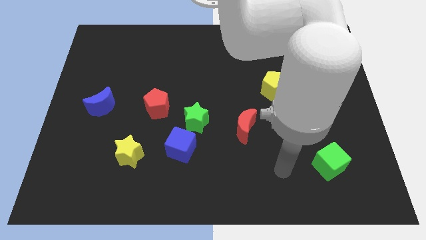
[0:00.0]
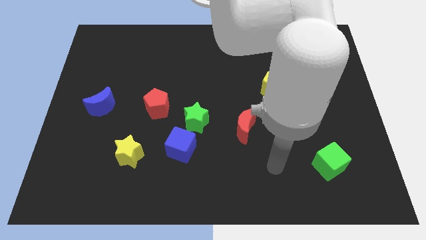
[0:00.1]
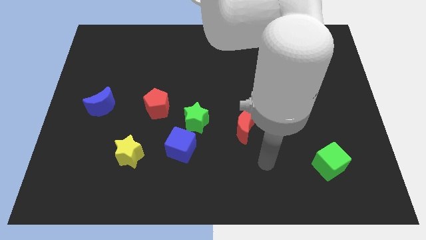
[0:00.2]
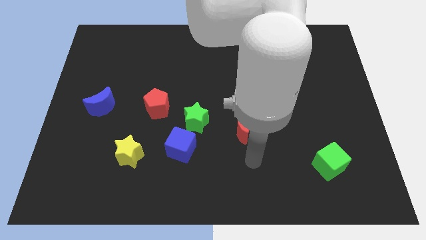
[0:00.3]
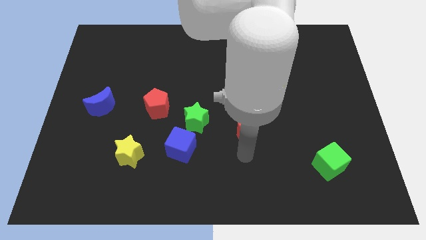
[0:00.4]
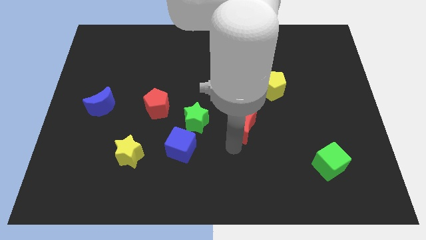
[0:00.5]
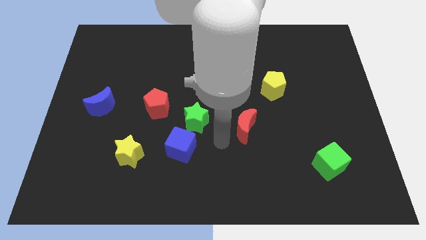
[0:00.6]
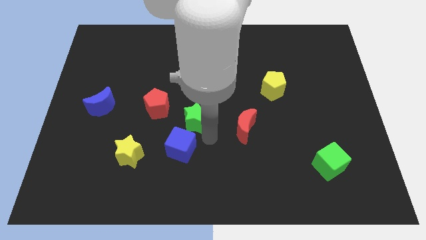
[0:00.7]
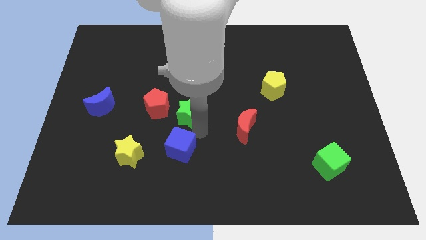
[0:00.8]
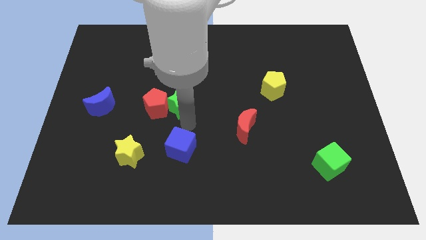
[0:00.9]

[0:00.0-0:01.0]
move the blue cube away from the green star

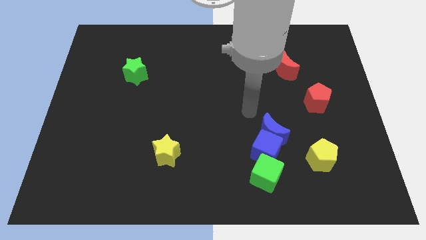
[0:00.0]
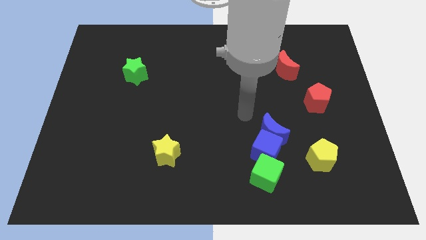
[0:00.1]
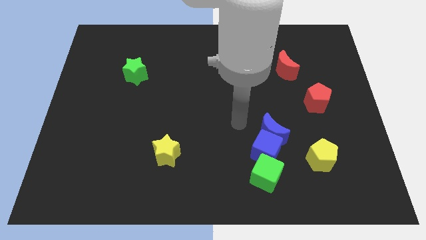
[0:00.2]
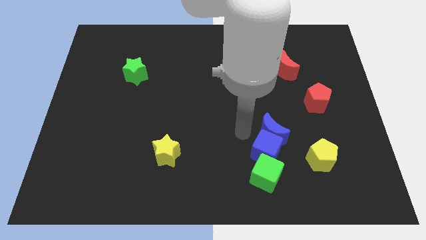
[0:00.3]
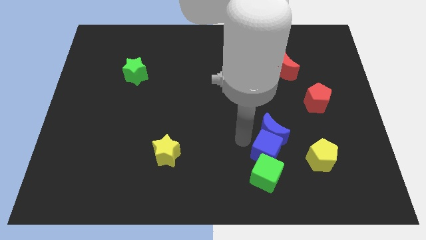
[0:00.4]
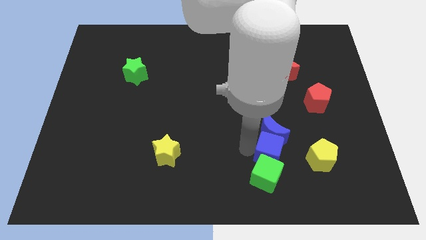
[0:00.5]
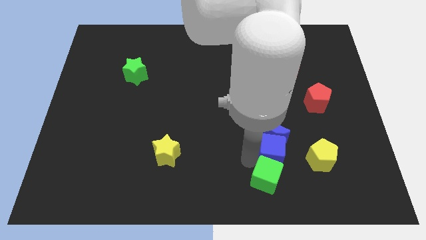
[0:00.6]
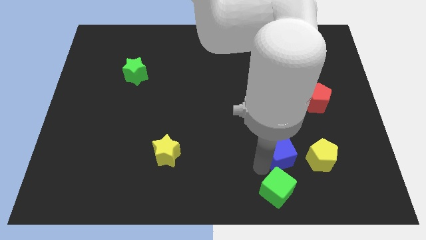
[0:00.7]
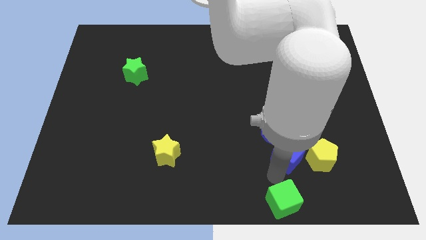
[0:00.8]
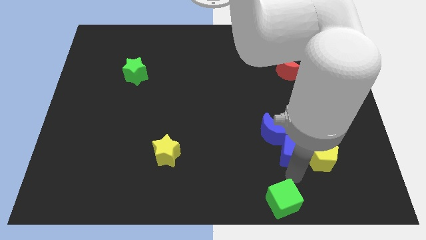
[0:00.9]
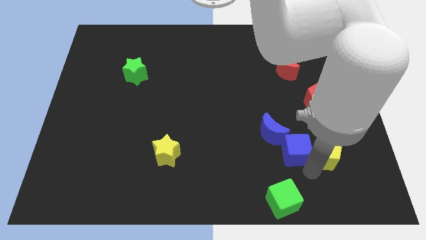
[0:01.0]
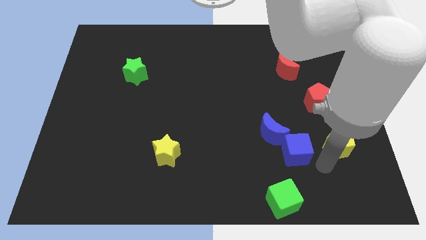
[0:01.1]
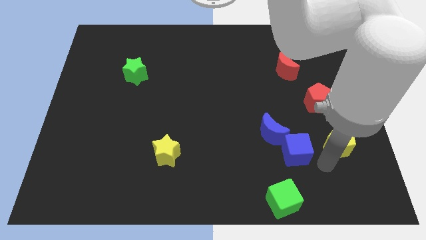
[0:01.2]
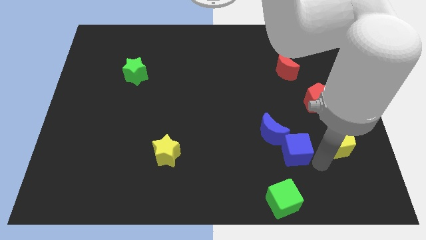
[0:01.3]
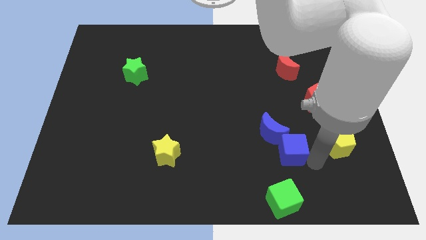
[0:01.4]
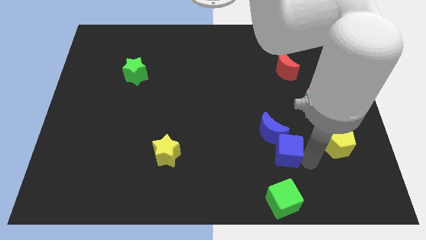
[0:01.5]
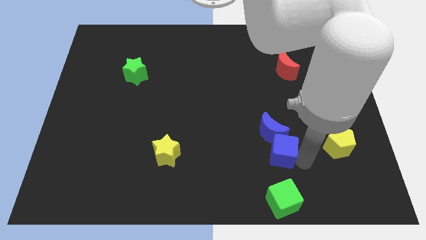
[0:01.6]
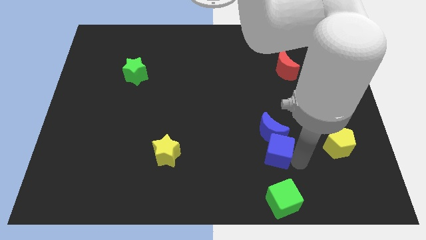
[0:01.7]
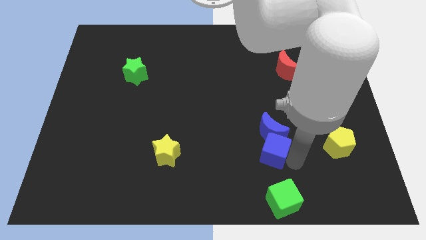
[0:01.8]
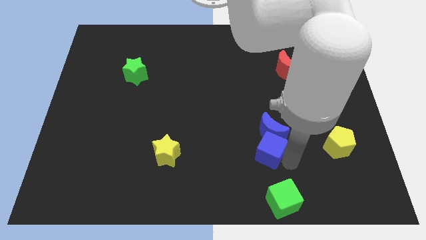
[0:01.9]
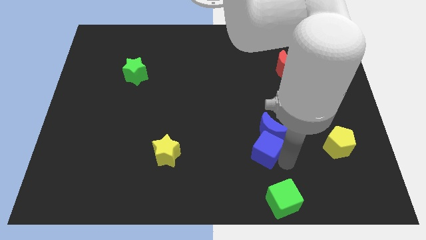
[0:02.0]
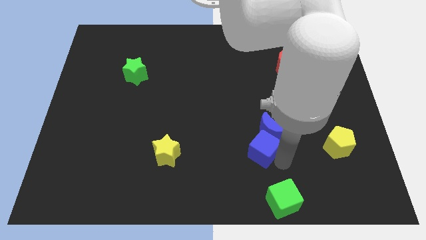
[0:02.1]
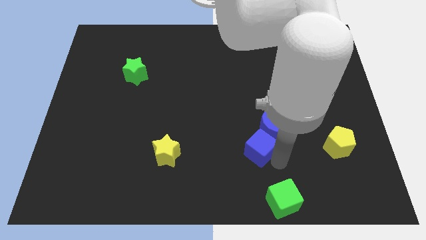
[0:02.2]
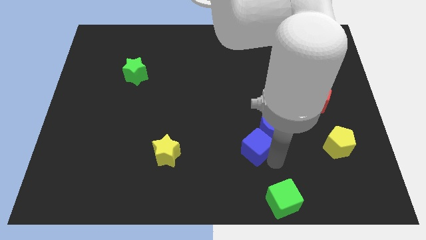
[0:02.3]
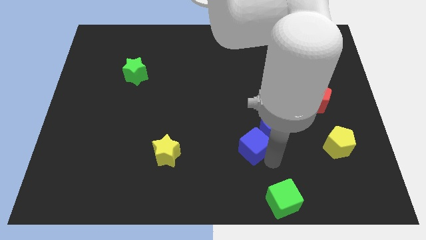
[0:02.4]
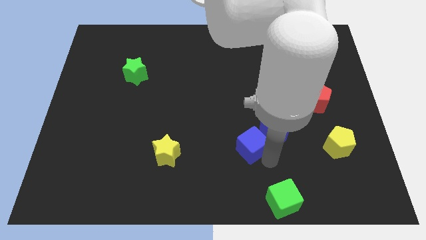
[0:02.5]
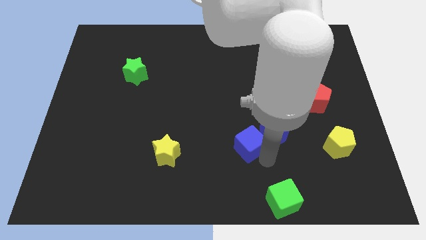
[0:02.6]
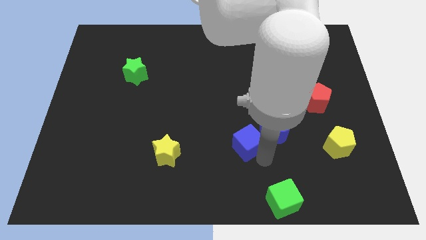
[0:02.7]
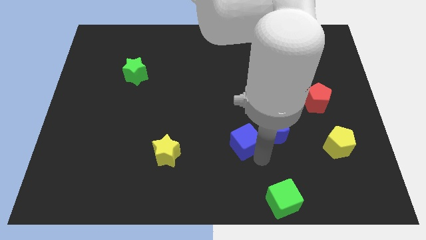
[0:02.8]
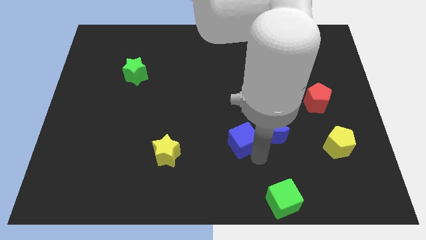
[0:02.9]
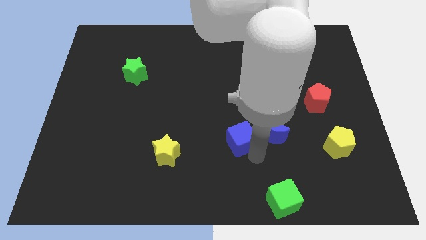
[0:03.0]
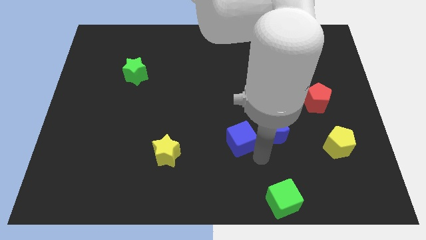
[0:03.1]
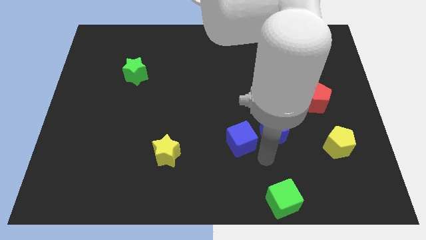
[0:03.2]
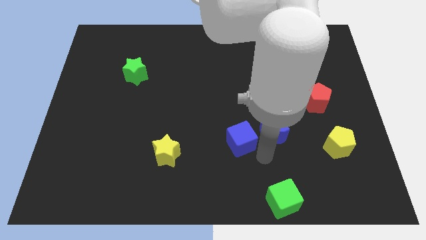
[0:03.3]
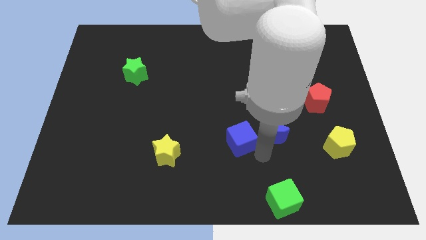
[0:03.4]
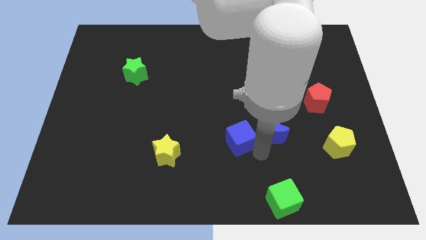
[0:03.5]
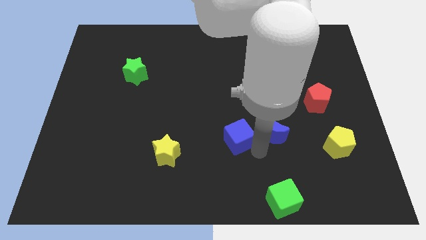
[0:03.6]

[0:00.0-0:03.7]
separate the blue cube from the blue moon and green cube

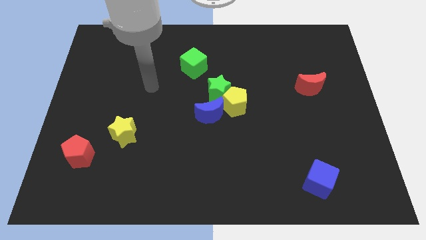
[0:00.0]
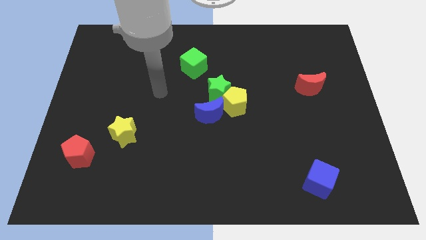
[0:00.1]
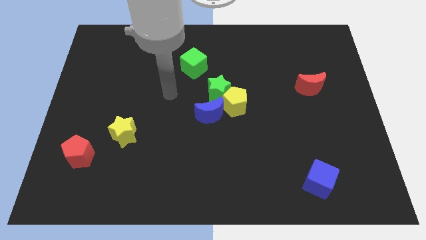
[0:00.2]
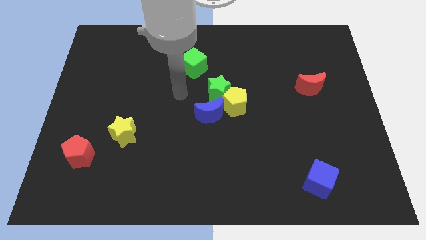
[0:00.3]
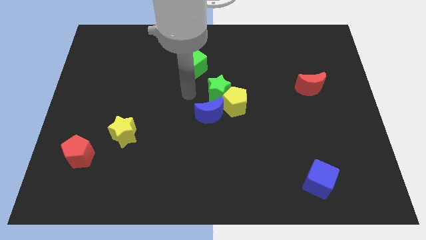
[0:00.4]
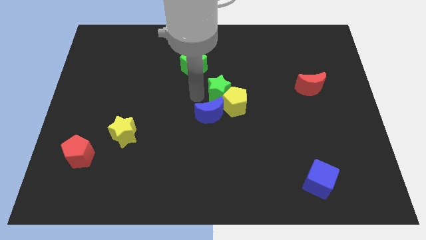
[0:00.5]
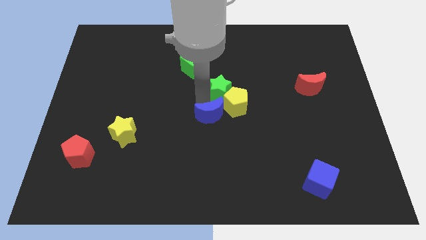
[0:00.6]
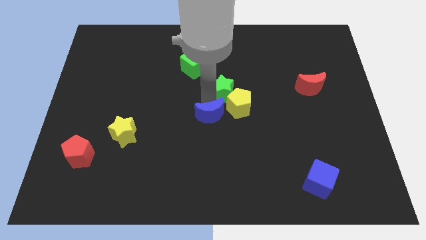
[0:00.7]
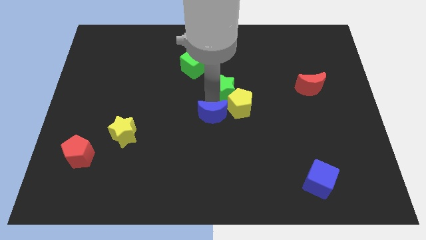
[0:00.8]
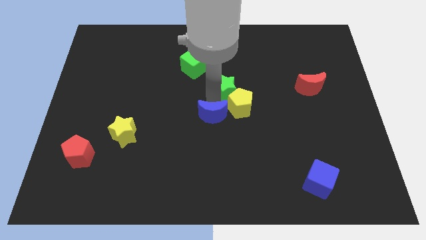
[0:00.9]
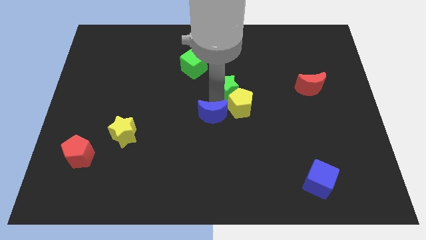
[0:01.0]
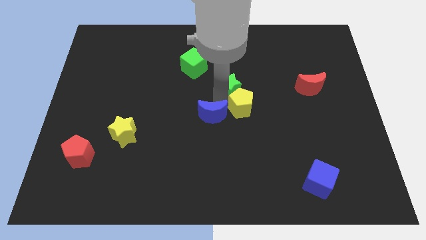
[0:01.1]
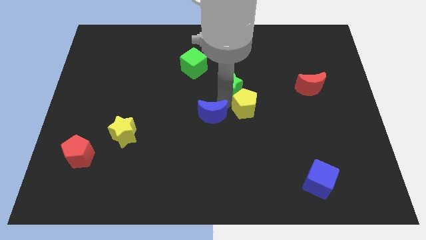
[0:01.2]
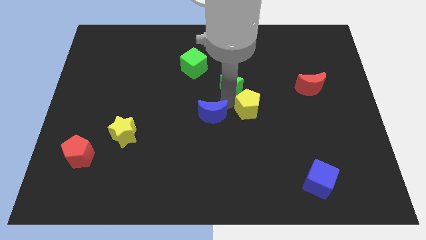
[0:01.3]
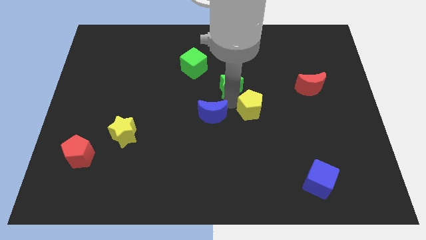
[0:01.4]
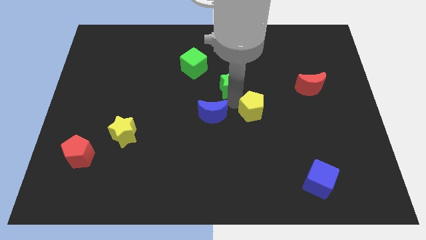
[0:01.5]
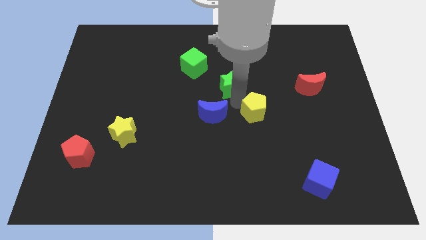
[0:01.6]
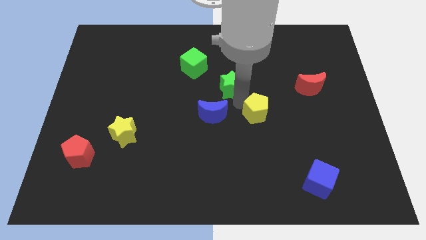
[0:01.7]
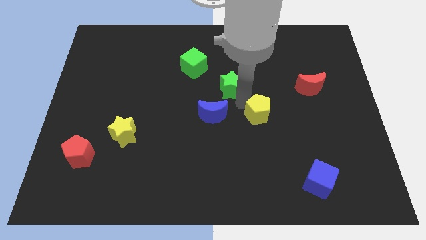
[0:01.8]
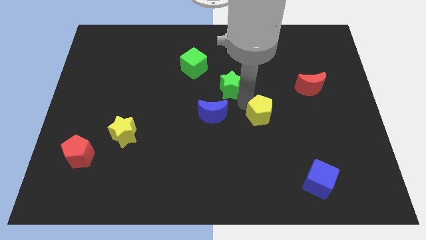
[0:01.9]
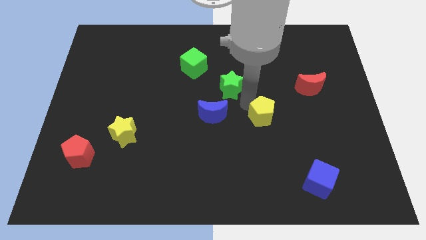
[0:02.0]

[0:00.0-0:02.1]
pull the yellow pentagon apart from the green star and blue moon

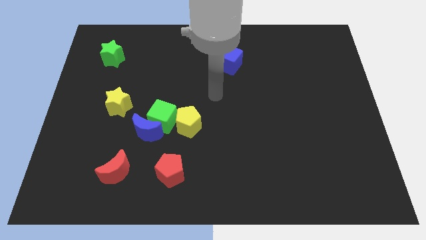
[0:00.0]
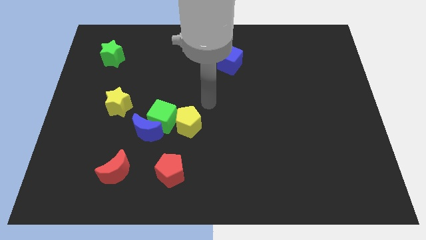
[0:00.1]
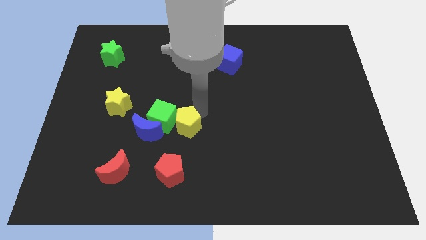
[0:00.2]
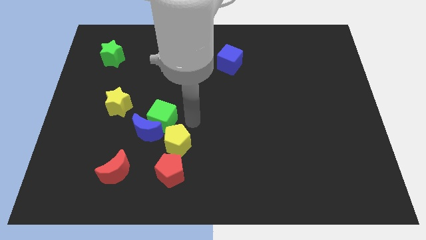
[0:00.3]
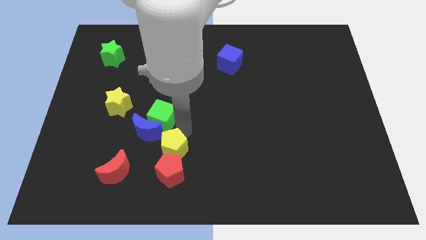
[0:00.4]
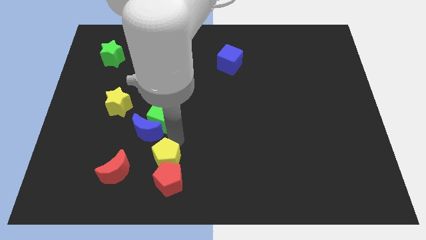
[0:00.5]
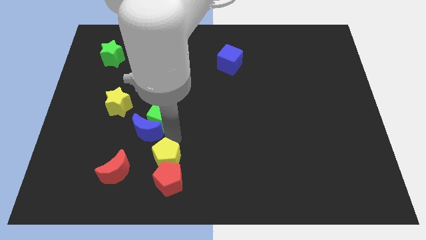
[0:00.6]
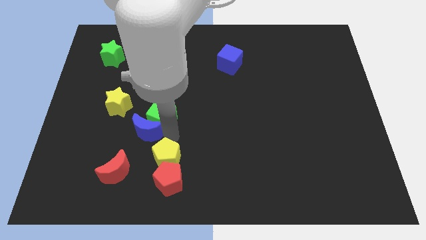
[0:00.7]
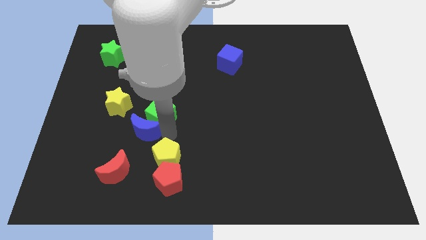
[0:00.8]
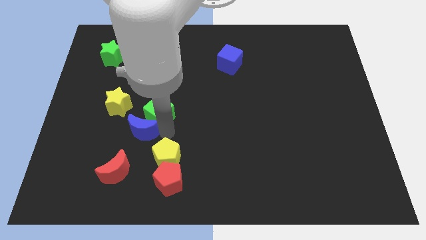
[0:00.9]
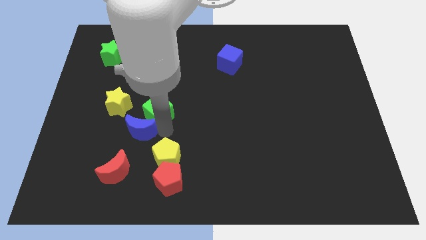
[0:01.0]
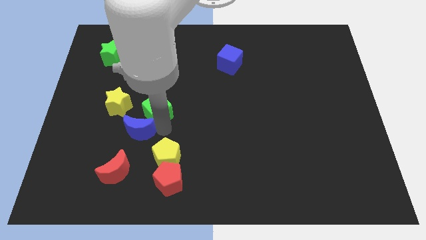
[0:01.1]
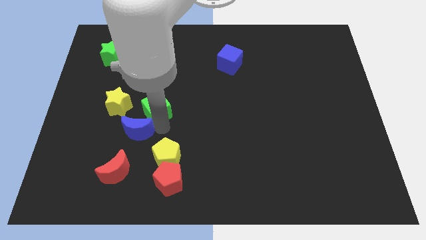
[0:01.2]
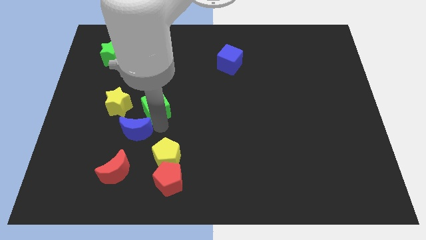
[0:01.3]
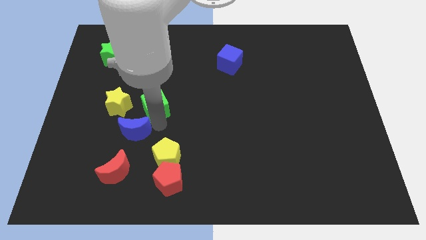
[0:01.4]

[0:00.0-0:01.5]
separate the green cube from the blue moon and yellow pentagon

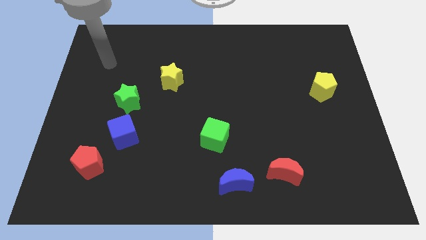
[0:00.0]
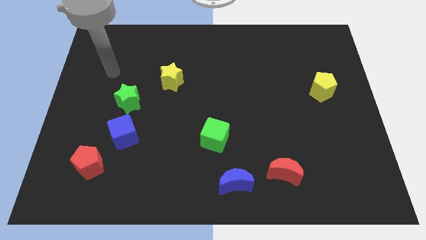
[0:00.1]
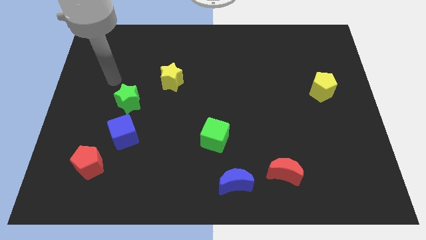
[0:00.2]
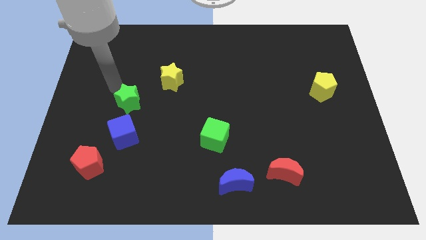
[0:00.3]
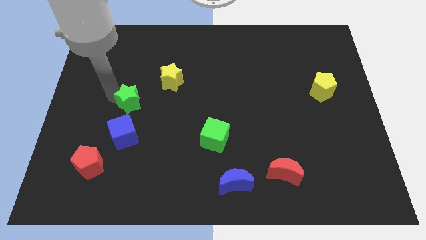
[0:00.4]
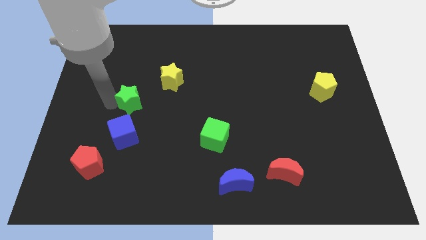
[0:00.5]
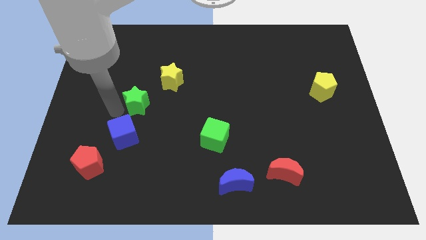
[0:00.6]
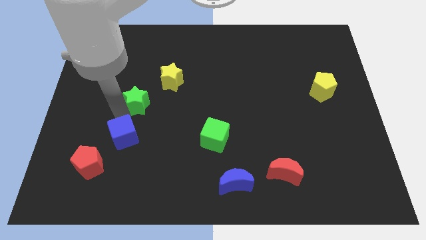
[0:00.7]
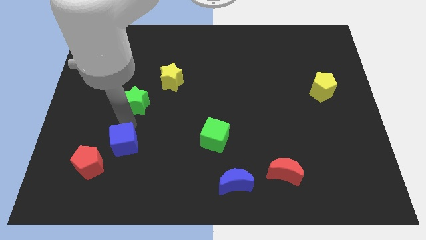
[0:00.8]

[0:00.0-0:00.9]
separate the green star from the blue cube
